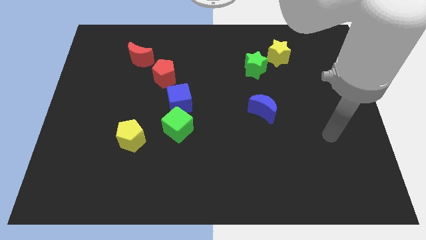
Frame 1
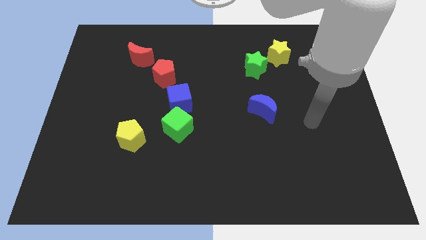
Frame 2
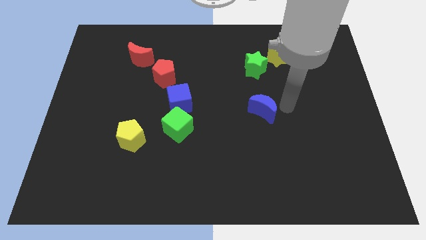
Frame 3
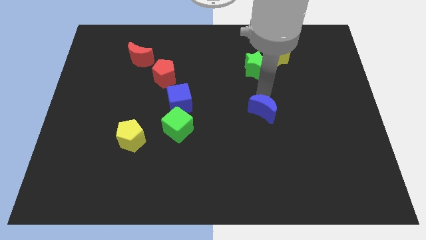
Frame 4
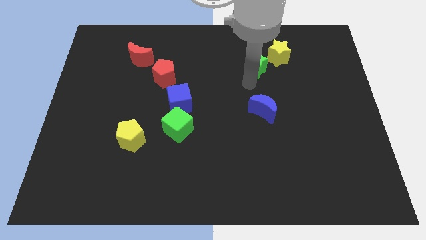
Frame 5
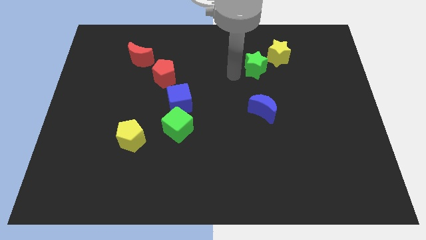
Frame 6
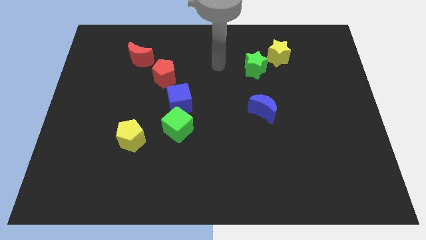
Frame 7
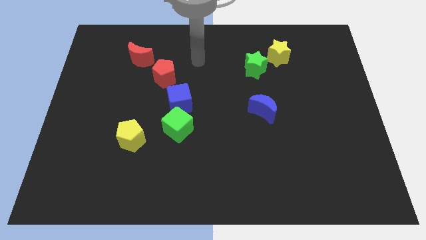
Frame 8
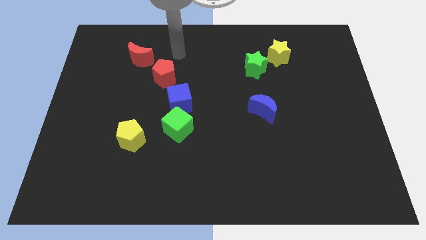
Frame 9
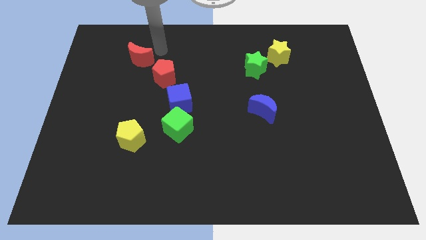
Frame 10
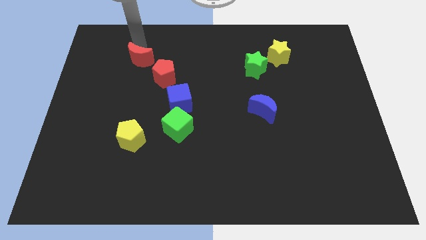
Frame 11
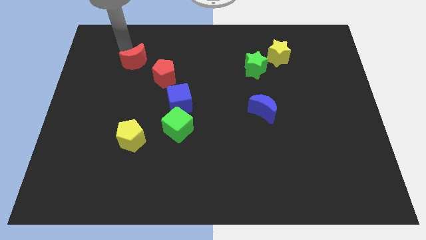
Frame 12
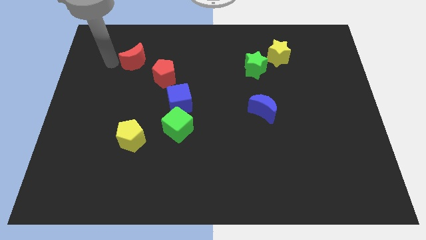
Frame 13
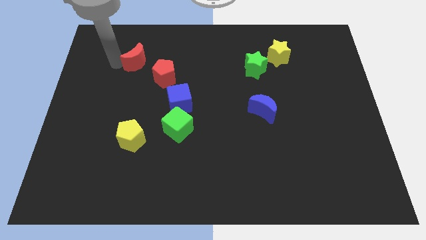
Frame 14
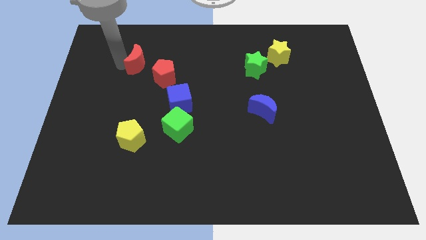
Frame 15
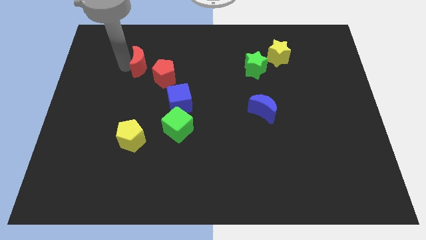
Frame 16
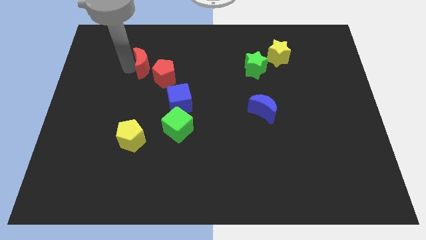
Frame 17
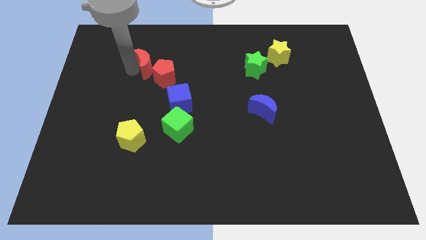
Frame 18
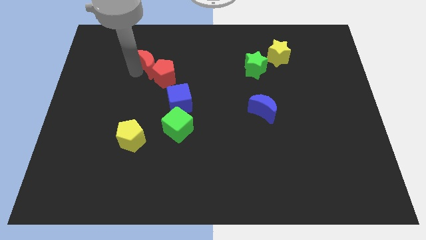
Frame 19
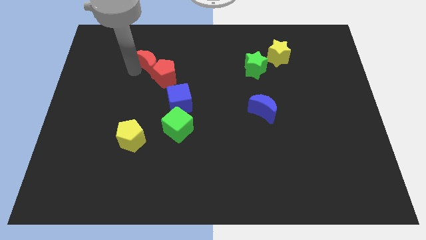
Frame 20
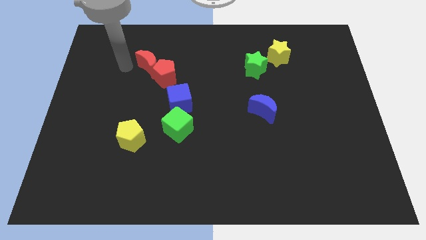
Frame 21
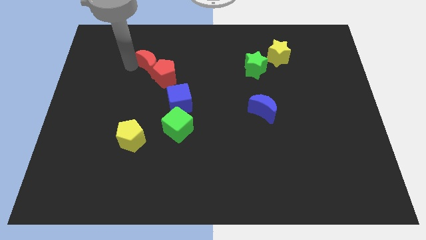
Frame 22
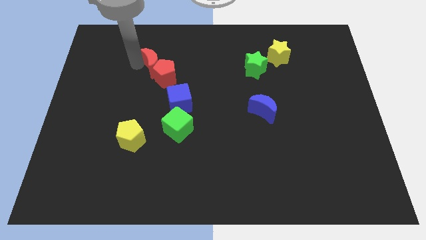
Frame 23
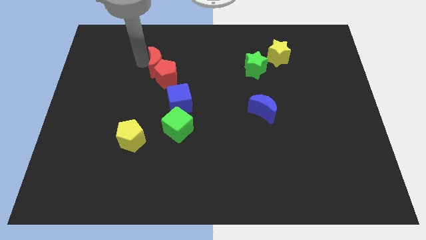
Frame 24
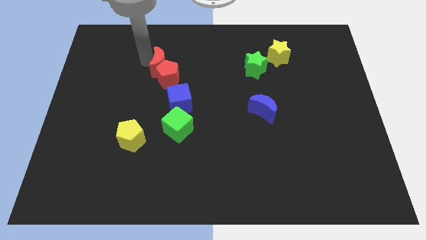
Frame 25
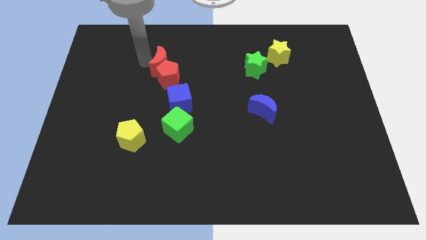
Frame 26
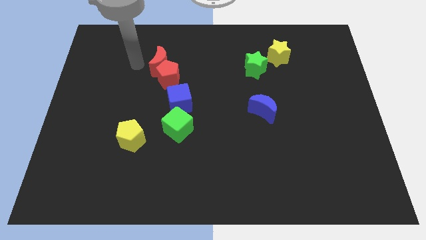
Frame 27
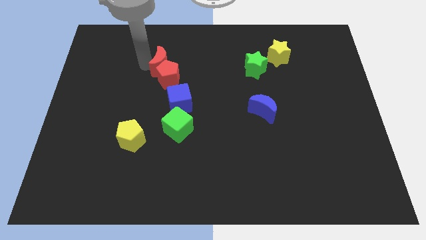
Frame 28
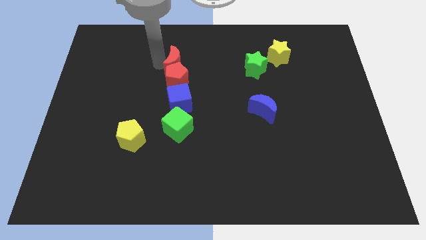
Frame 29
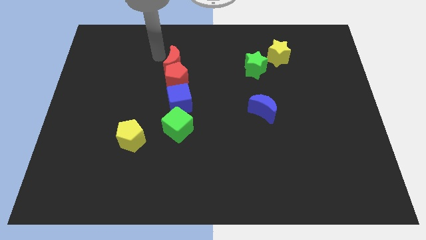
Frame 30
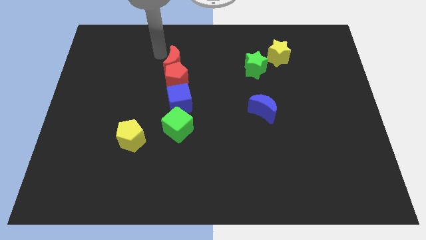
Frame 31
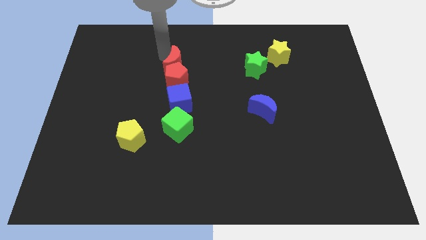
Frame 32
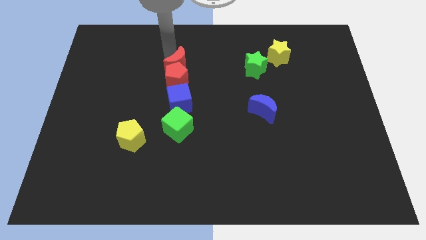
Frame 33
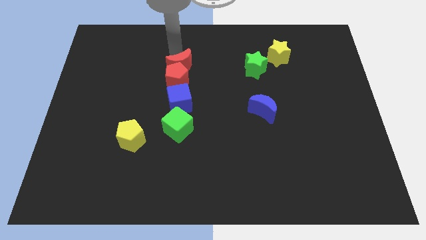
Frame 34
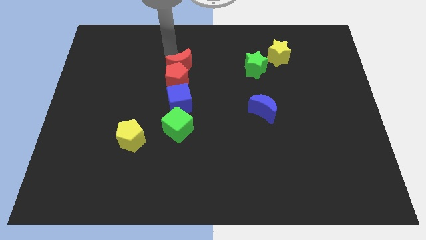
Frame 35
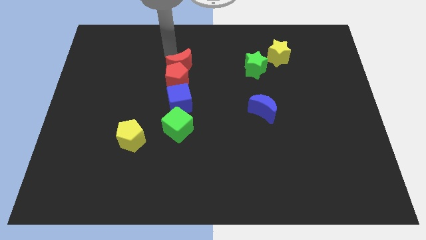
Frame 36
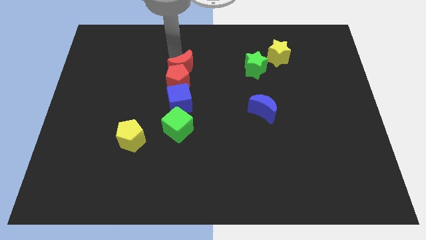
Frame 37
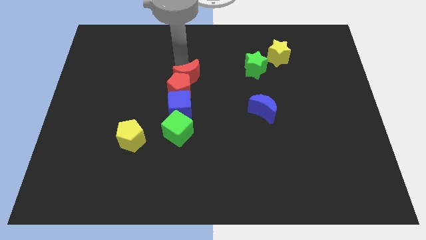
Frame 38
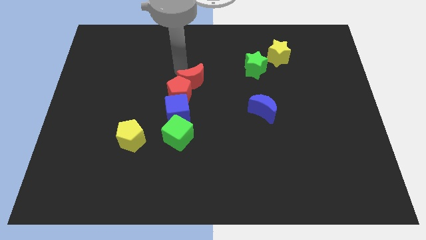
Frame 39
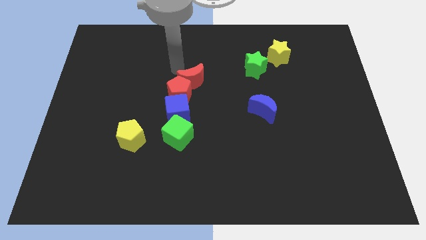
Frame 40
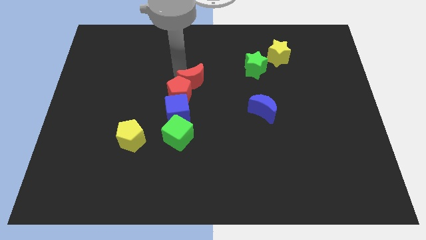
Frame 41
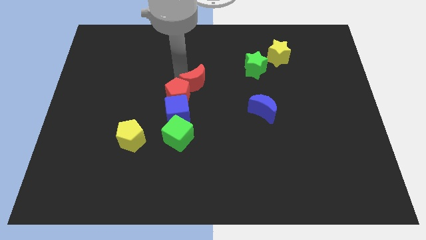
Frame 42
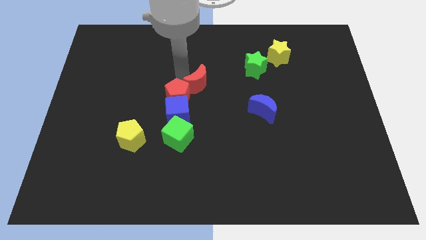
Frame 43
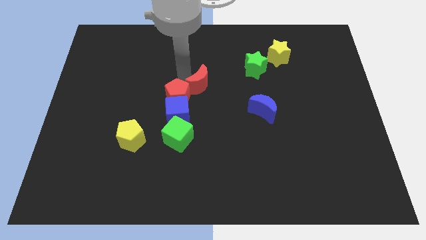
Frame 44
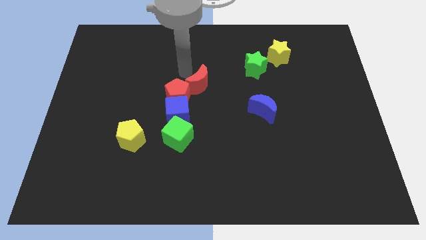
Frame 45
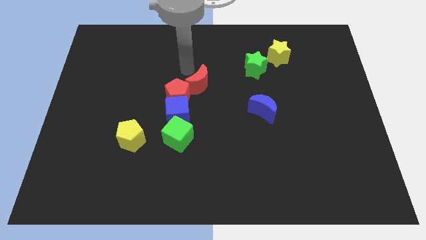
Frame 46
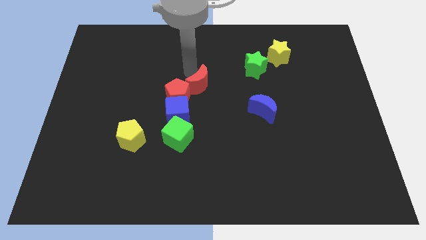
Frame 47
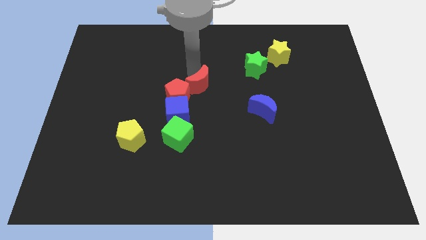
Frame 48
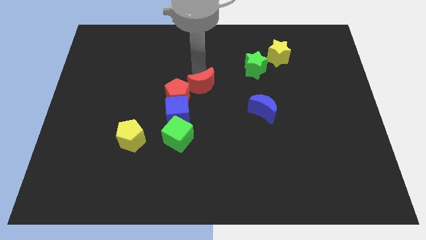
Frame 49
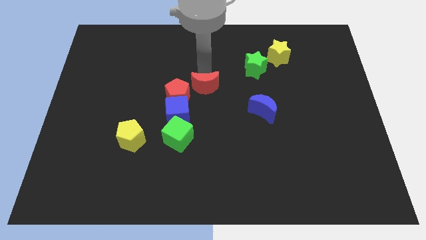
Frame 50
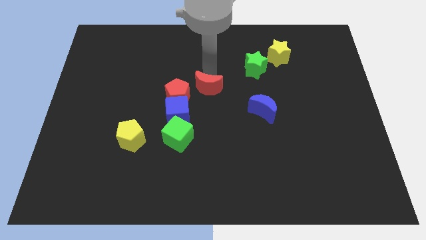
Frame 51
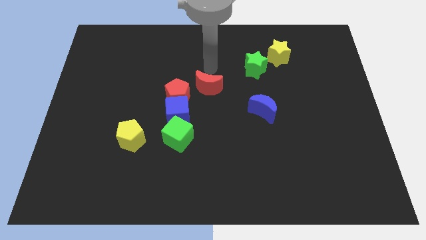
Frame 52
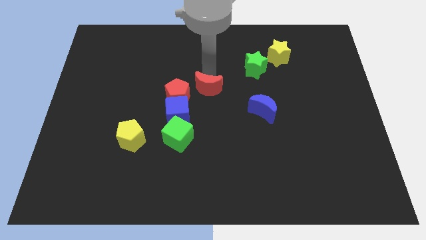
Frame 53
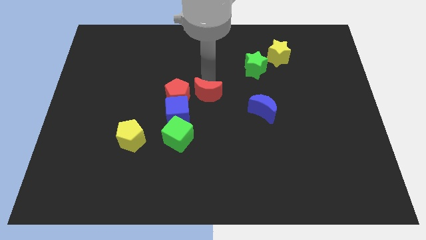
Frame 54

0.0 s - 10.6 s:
slide the red moon diagonally downwards and right

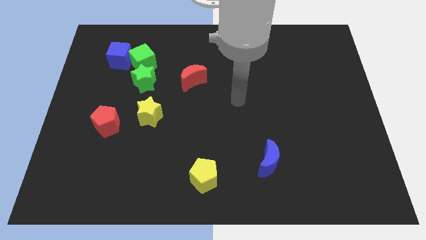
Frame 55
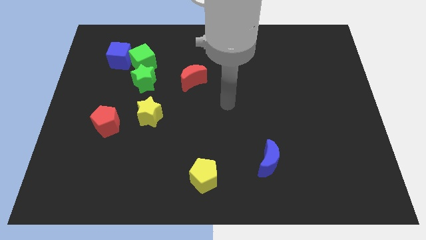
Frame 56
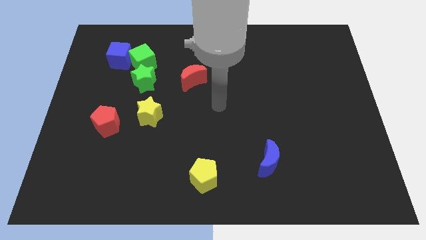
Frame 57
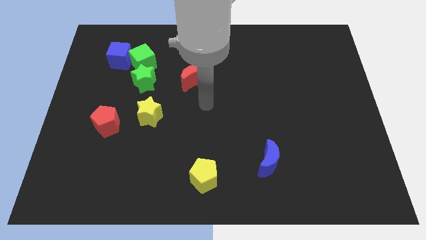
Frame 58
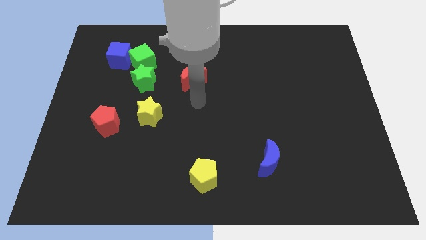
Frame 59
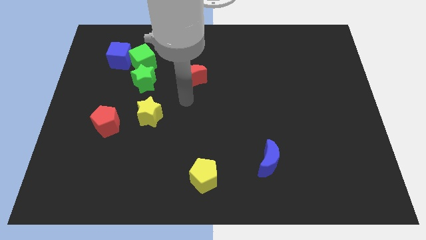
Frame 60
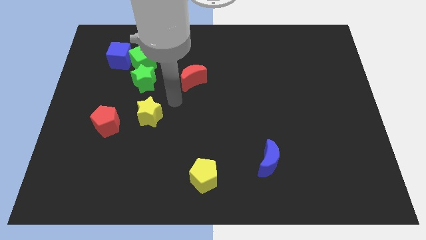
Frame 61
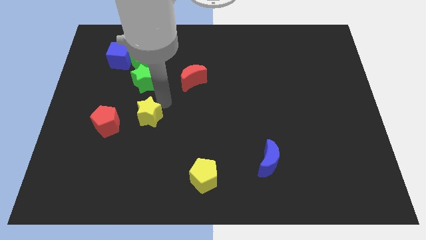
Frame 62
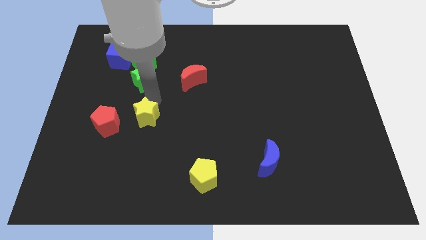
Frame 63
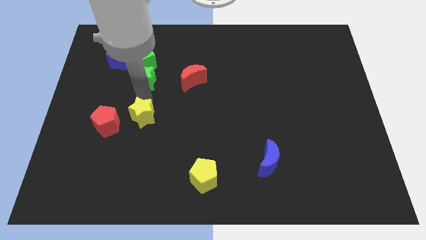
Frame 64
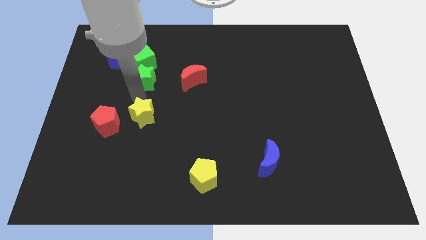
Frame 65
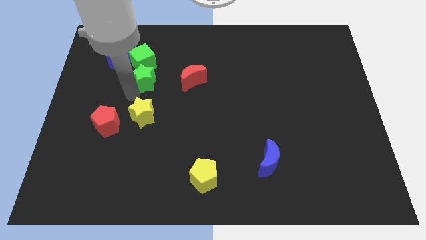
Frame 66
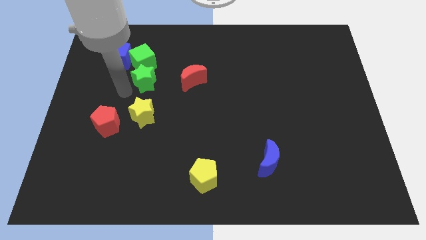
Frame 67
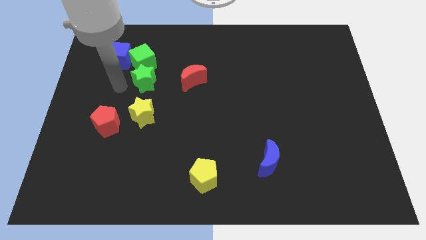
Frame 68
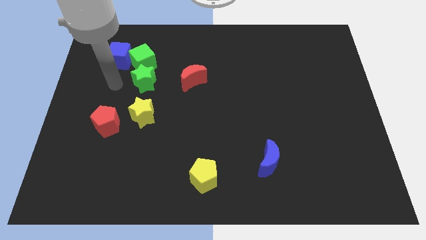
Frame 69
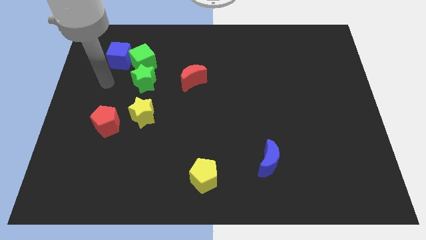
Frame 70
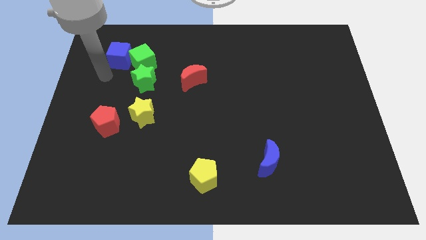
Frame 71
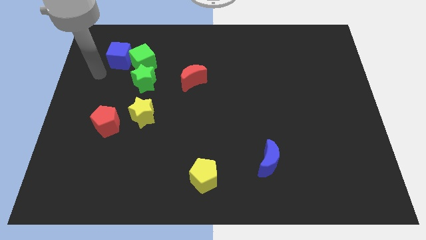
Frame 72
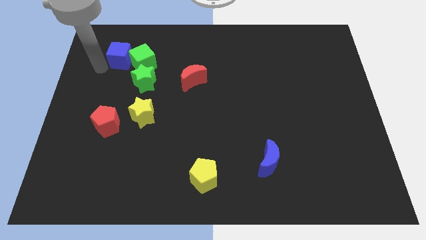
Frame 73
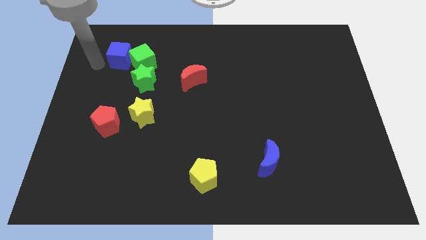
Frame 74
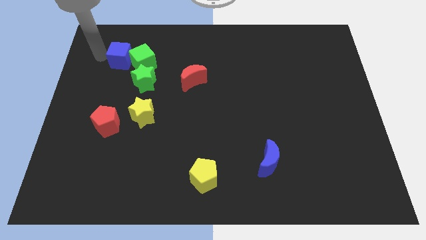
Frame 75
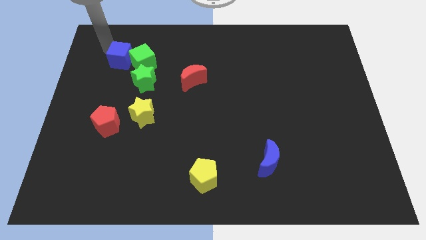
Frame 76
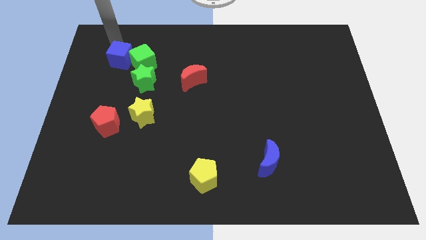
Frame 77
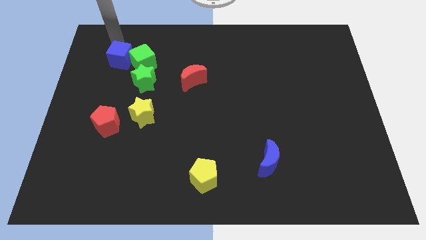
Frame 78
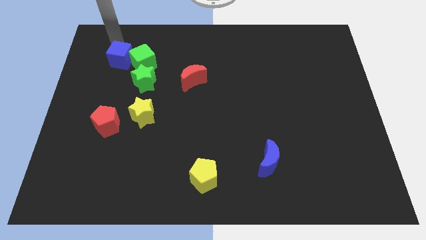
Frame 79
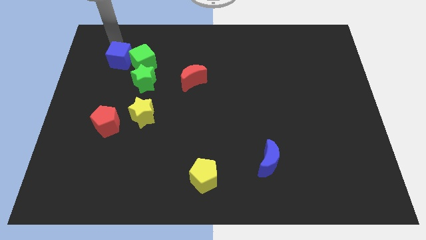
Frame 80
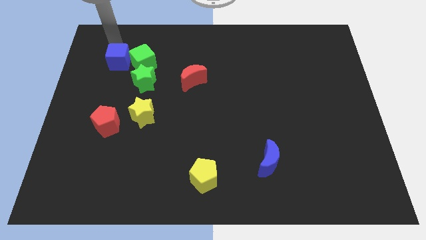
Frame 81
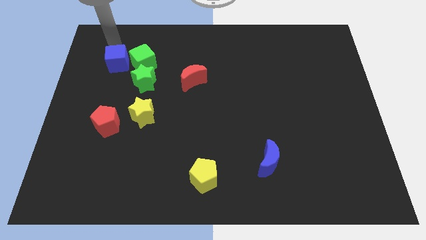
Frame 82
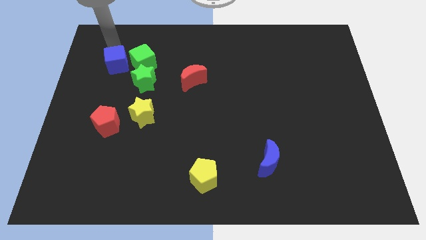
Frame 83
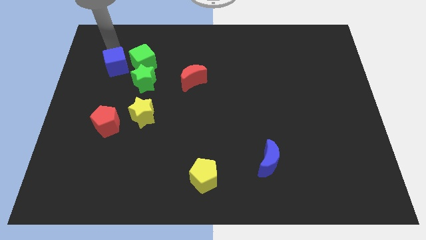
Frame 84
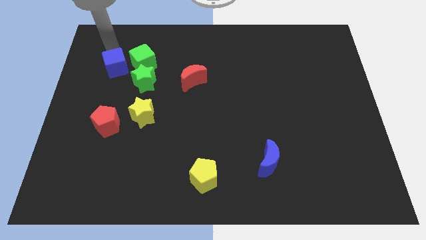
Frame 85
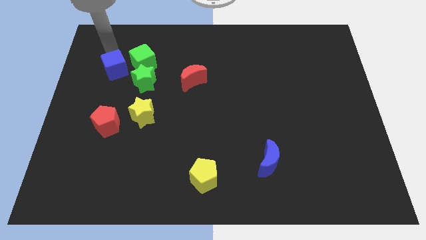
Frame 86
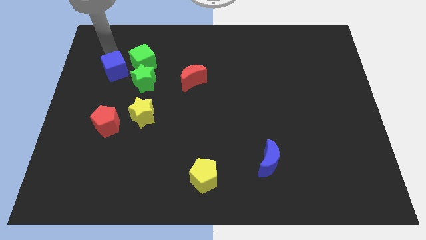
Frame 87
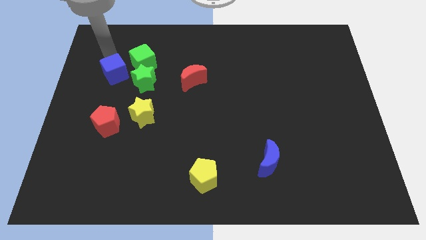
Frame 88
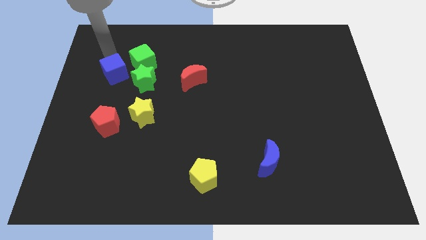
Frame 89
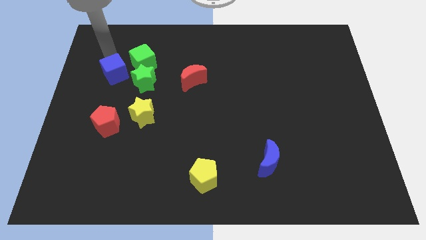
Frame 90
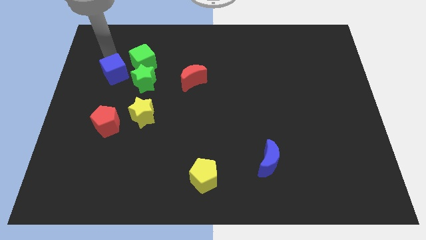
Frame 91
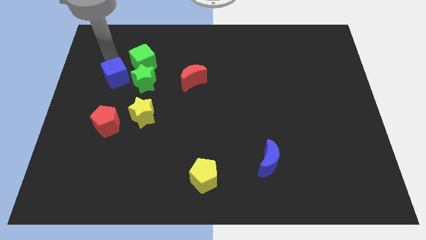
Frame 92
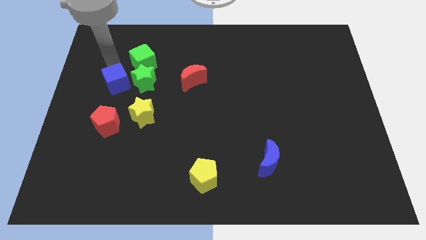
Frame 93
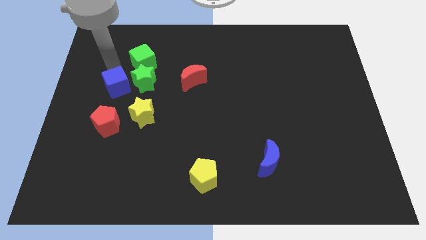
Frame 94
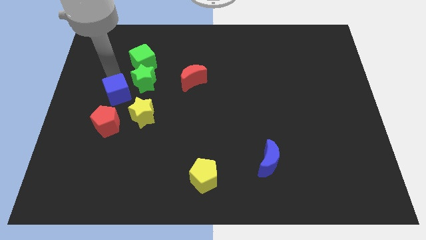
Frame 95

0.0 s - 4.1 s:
slightly slide the blue cube down and to the right
